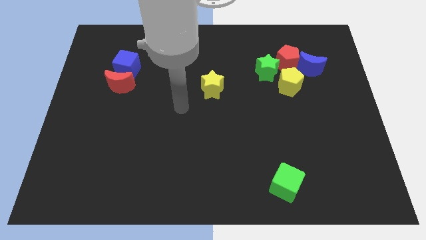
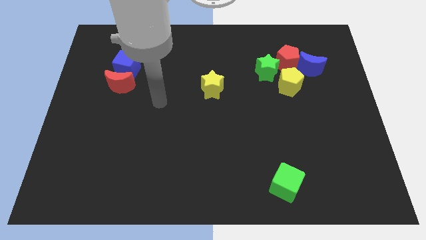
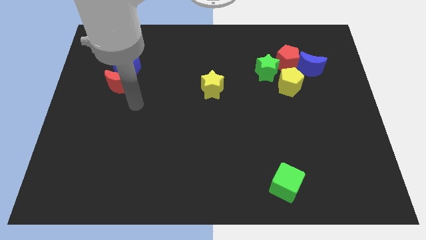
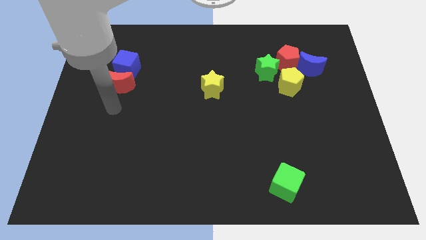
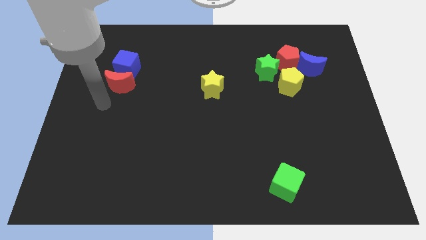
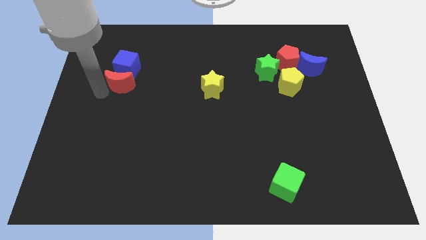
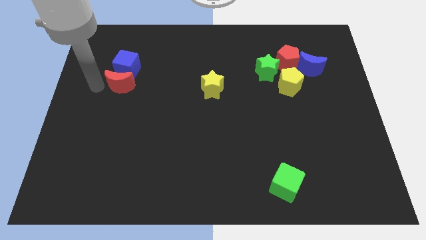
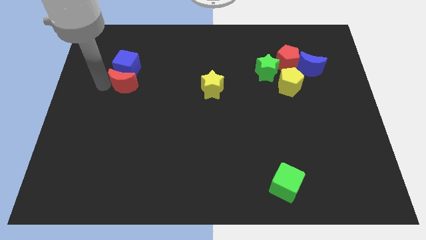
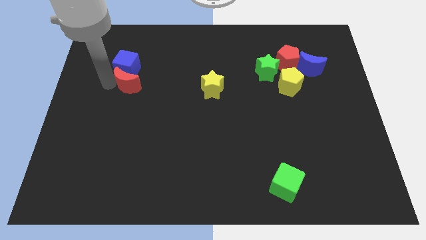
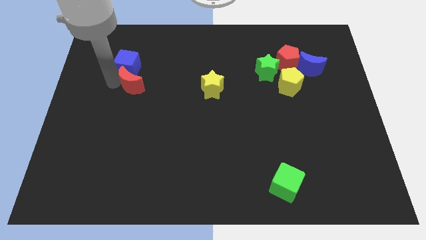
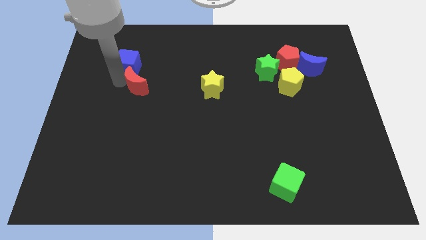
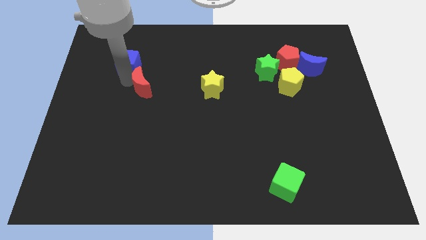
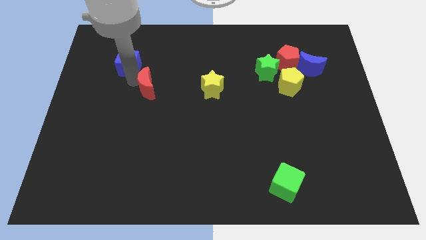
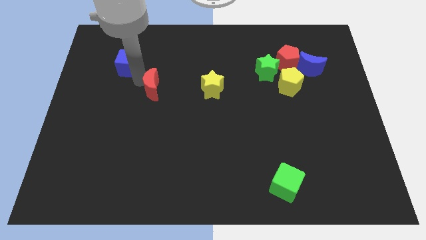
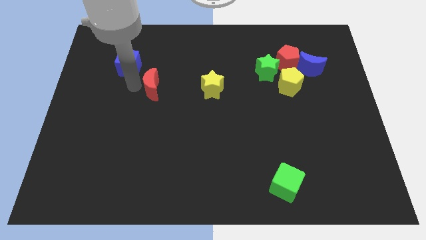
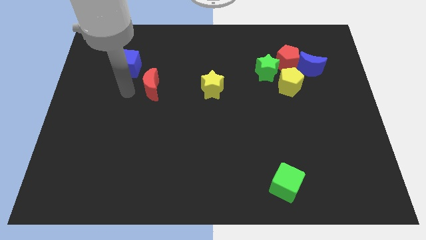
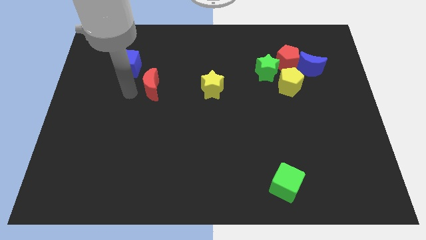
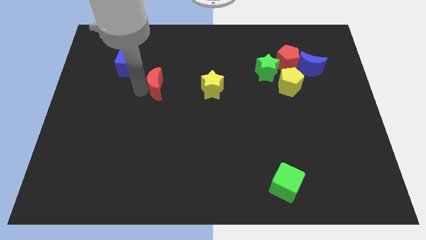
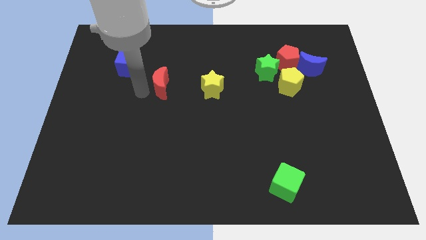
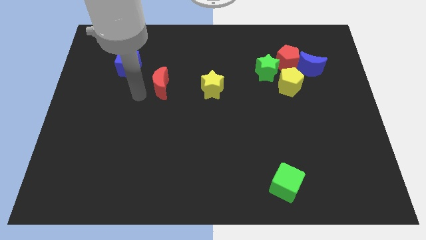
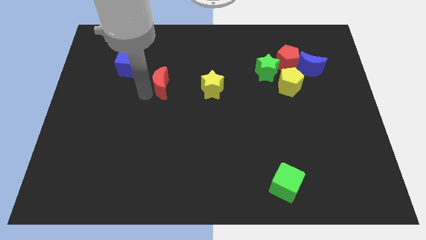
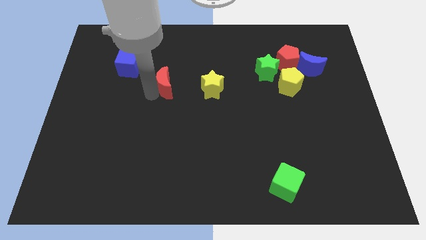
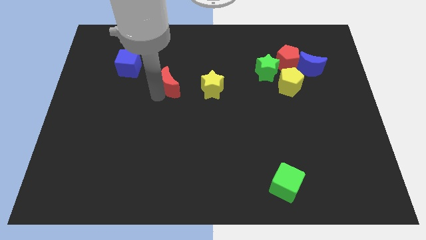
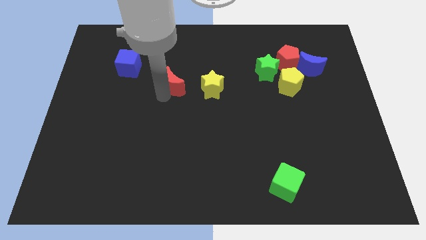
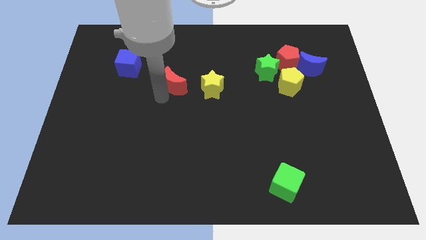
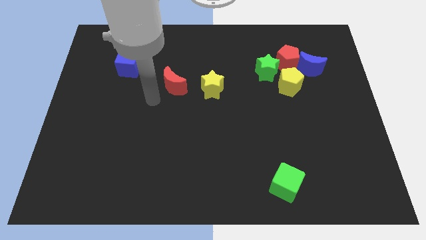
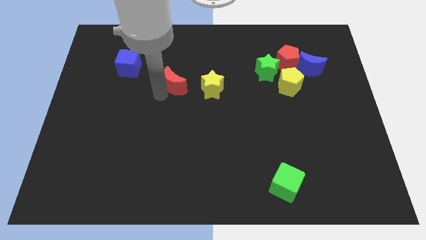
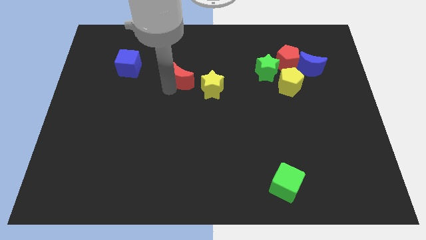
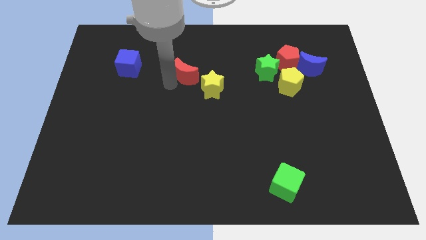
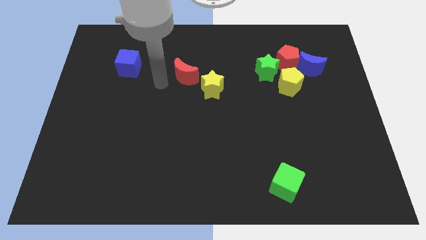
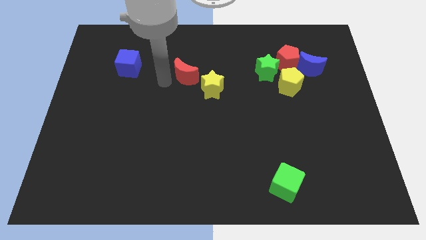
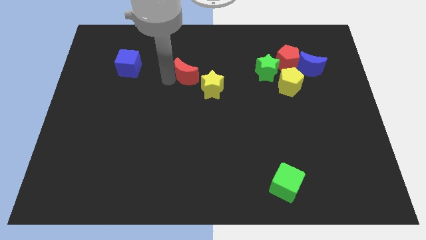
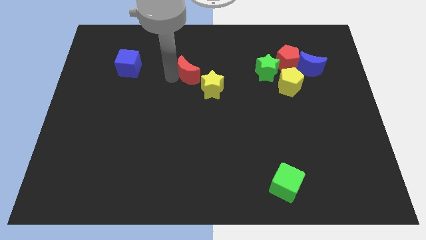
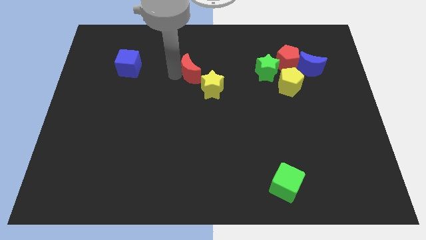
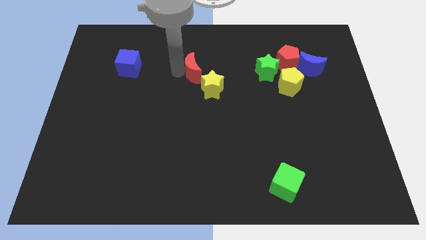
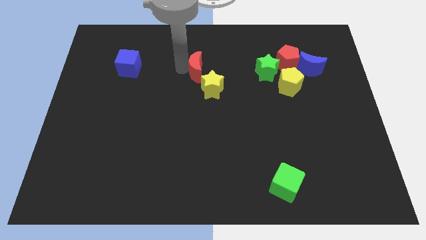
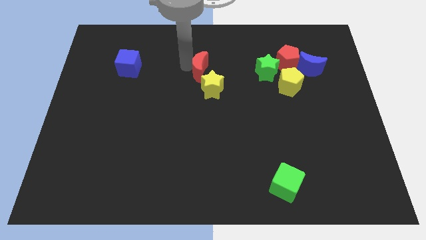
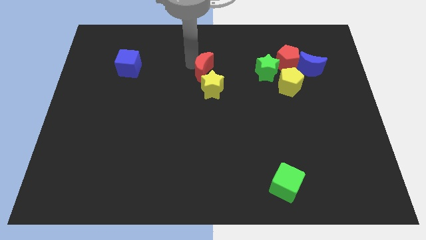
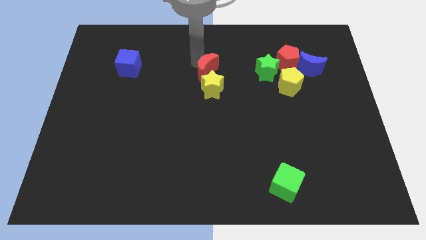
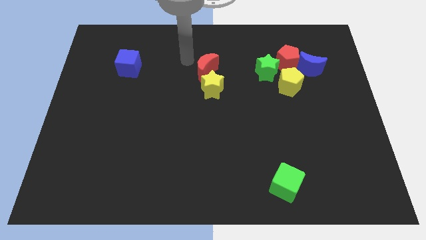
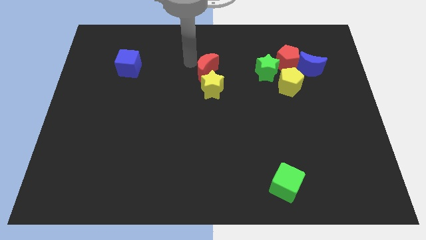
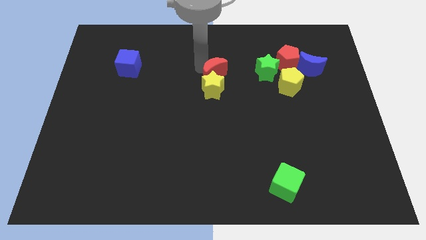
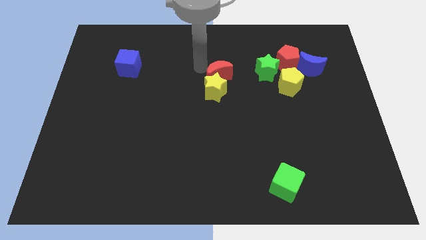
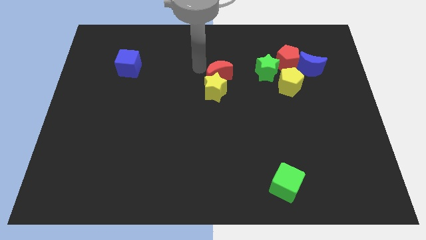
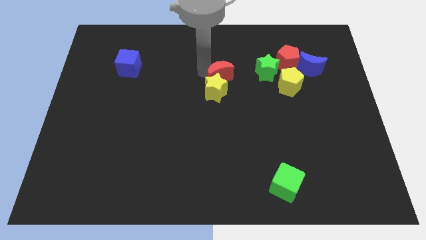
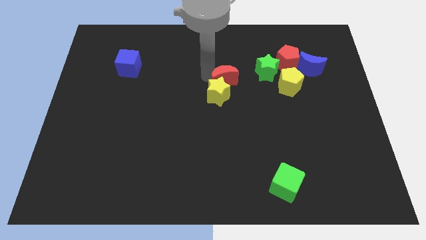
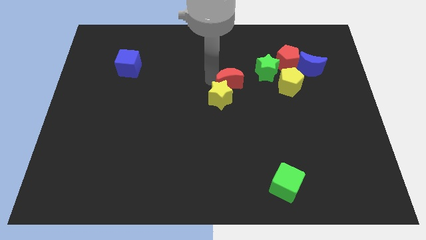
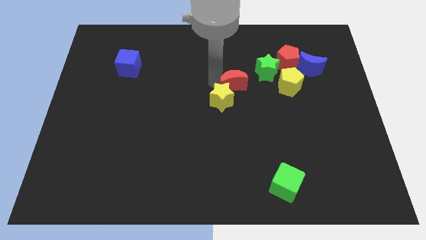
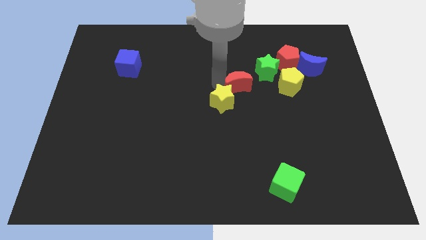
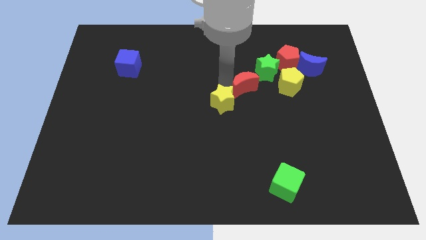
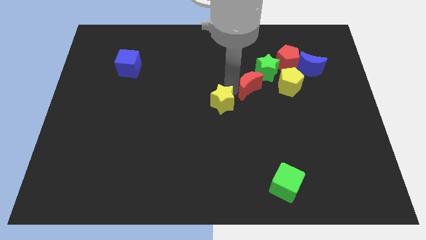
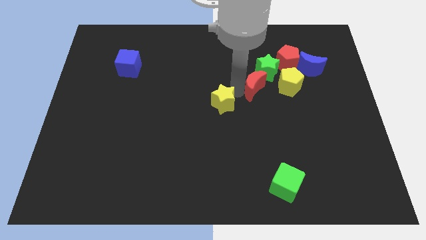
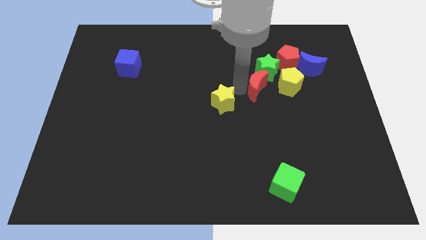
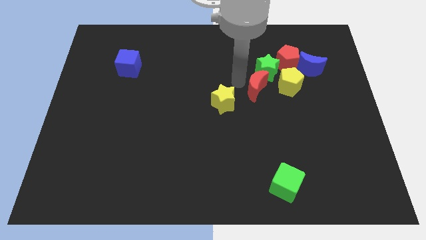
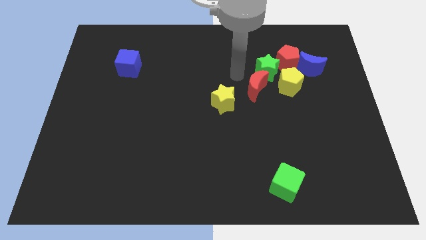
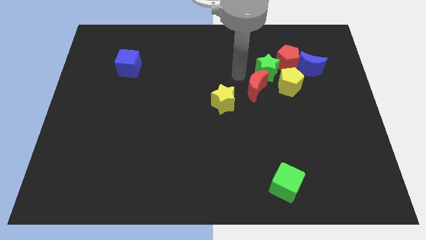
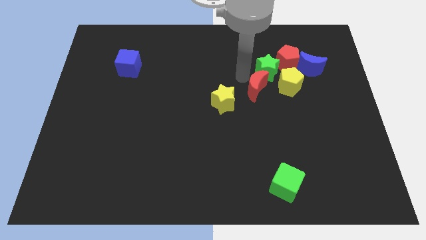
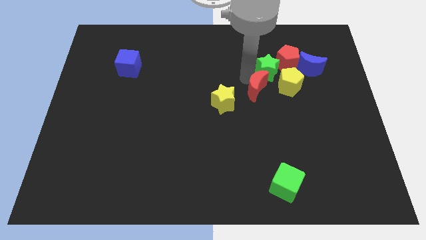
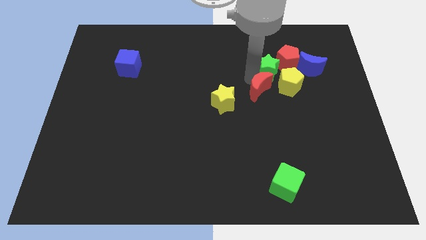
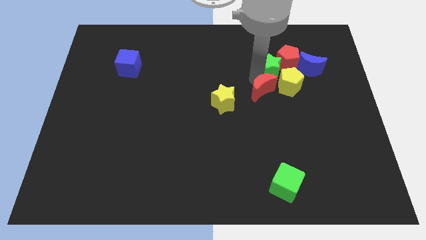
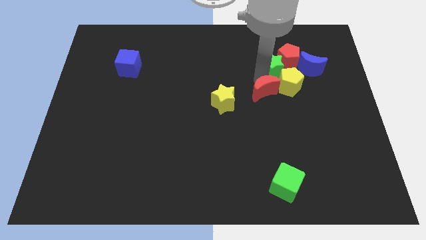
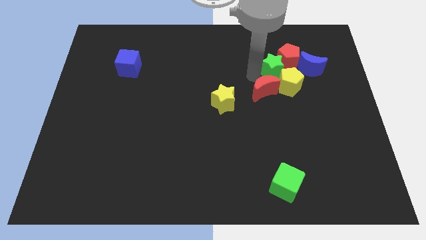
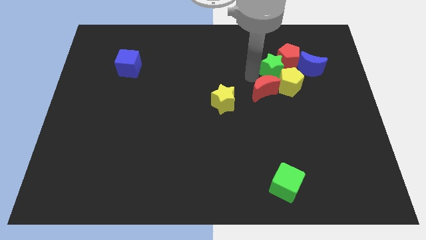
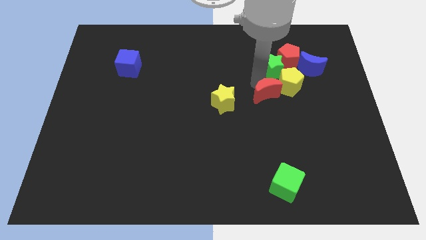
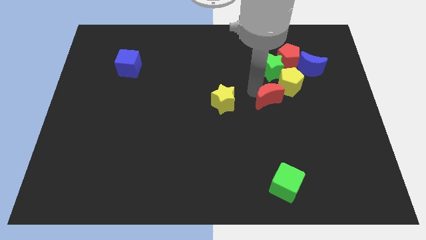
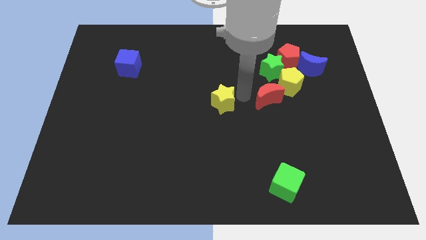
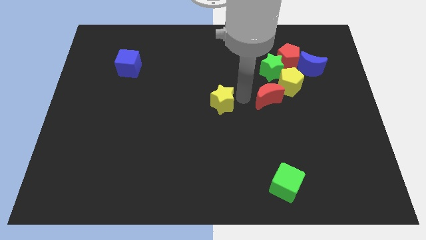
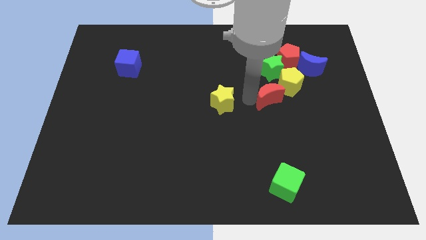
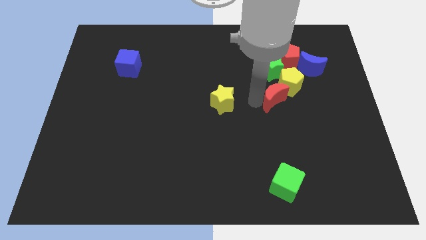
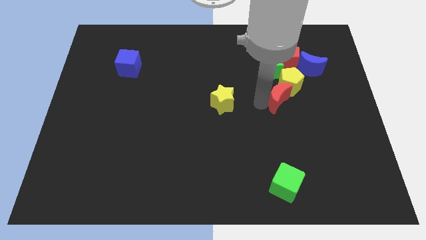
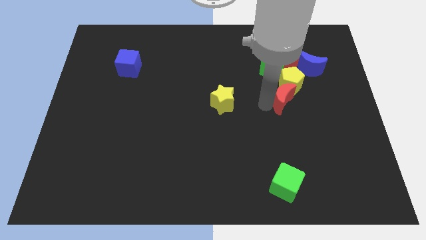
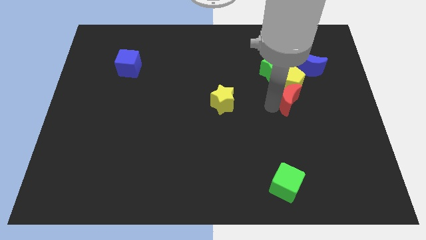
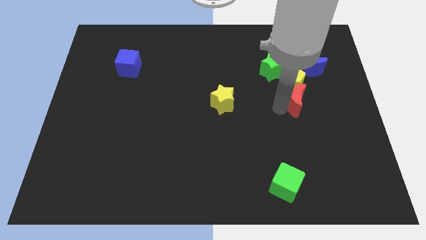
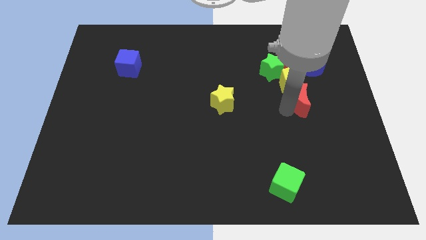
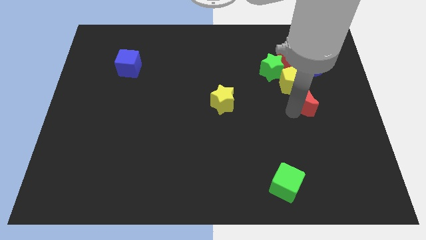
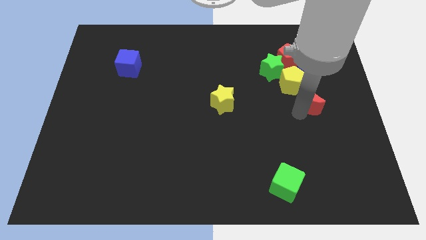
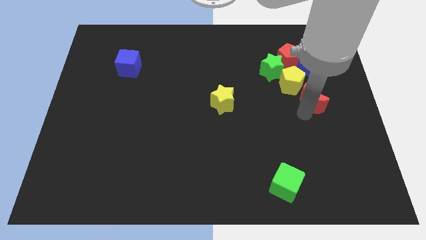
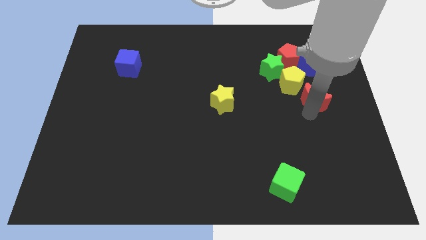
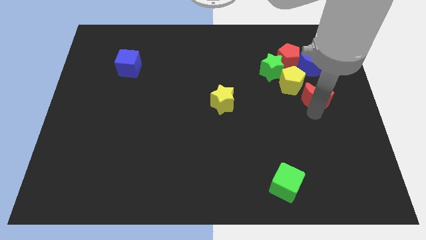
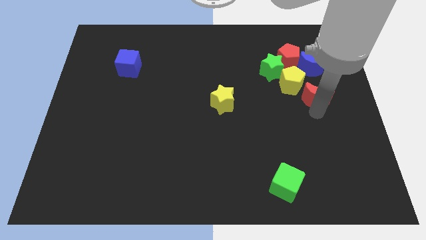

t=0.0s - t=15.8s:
put the red moon right of the yellow pentagon
